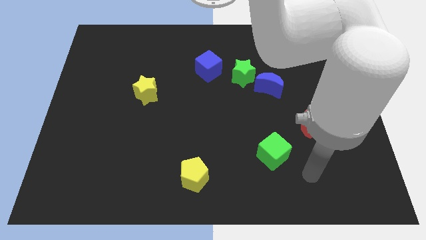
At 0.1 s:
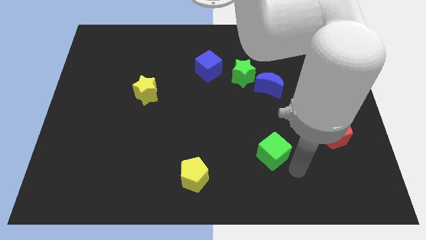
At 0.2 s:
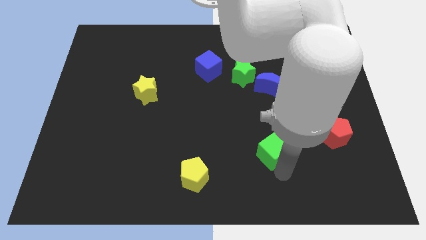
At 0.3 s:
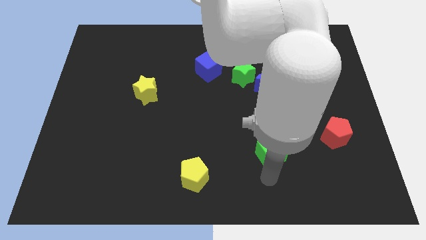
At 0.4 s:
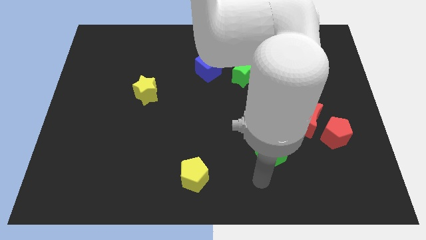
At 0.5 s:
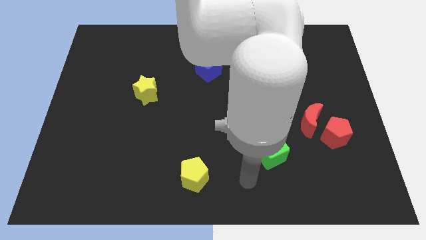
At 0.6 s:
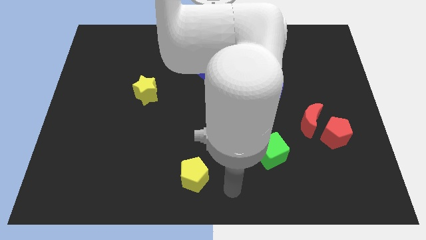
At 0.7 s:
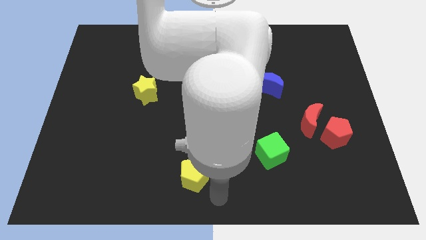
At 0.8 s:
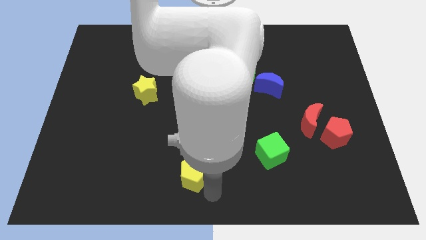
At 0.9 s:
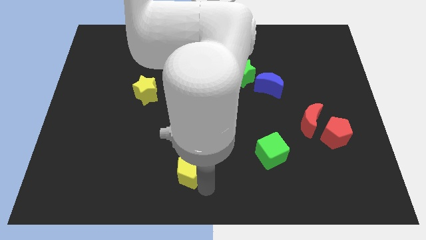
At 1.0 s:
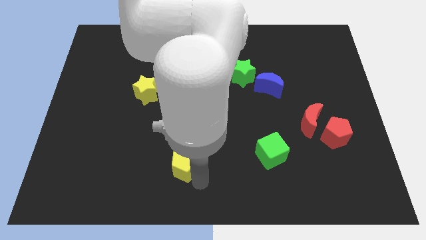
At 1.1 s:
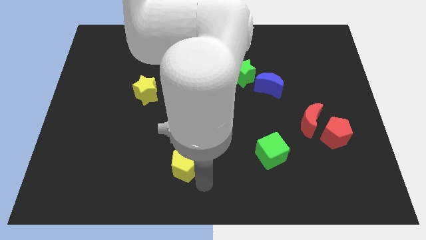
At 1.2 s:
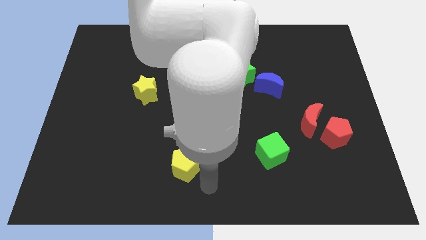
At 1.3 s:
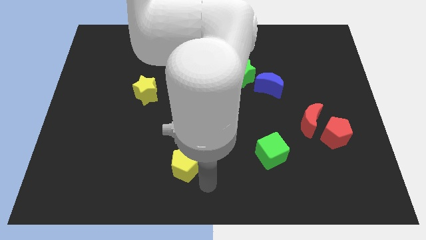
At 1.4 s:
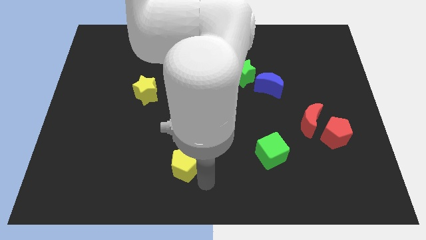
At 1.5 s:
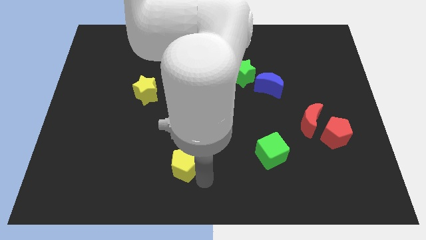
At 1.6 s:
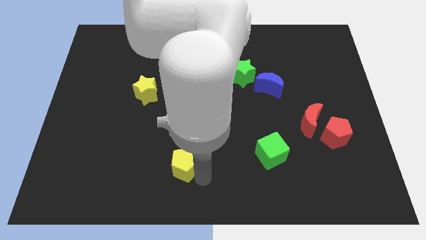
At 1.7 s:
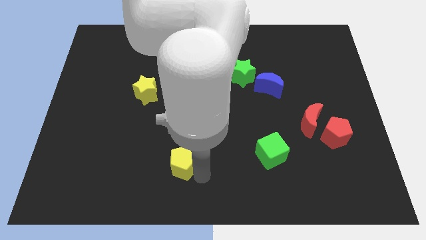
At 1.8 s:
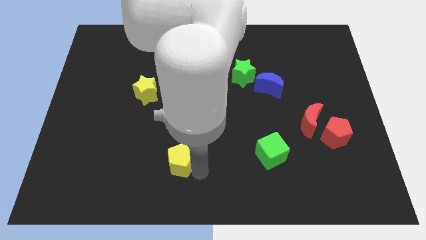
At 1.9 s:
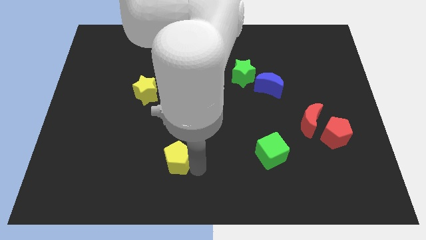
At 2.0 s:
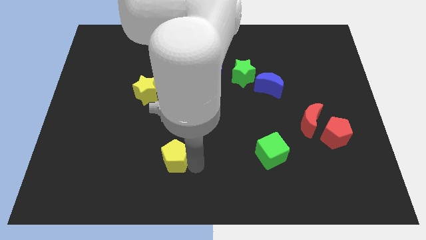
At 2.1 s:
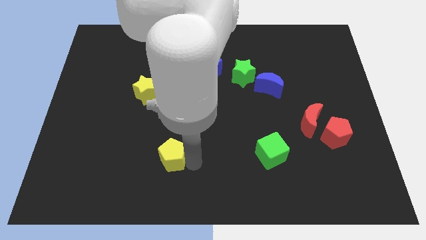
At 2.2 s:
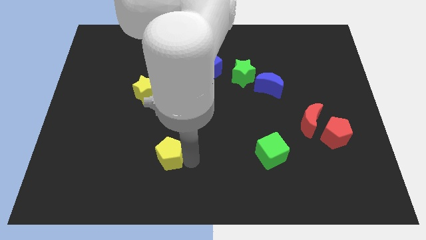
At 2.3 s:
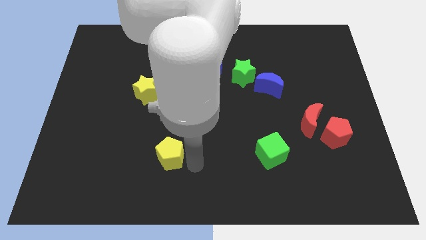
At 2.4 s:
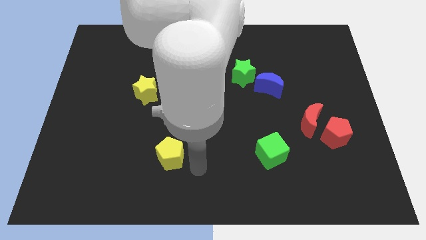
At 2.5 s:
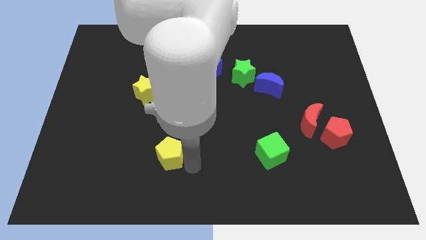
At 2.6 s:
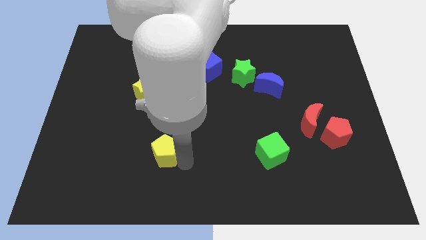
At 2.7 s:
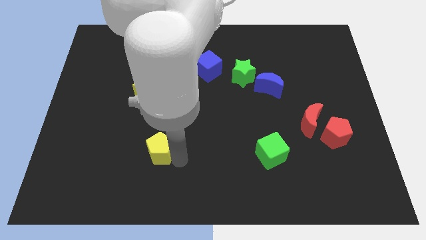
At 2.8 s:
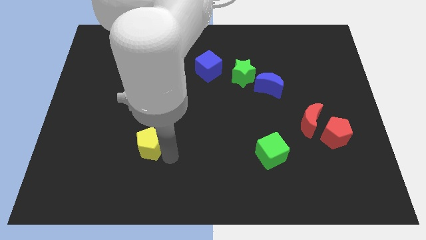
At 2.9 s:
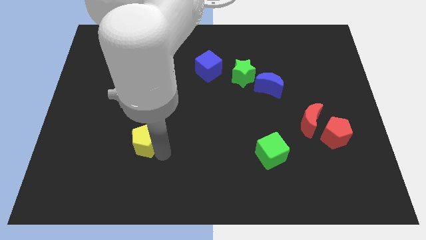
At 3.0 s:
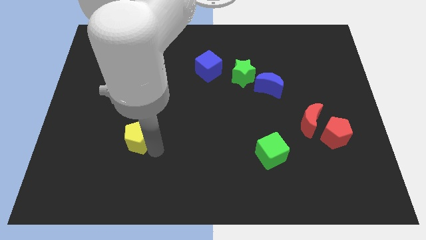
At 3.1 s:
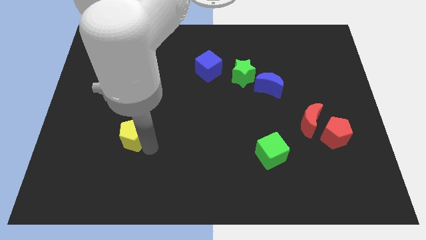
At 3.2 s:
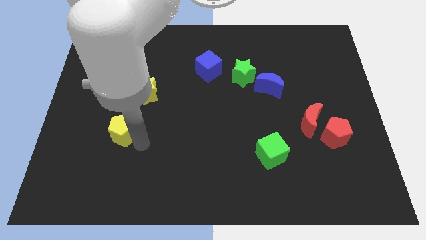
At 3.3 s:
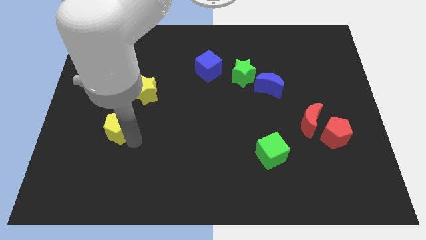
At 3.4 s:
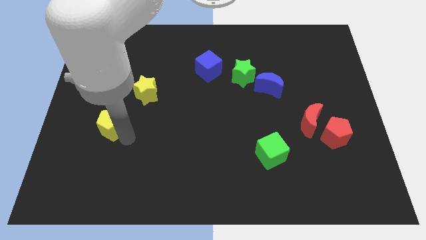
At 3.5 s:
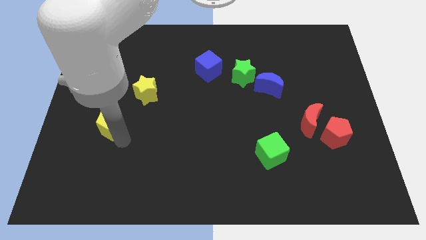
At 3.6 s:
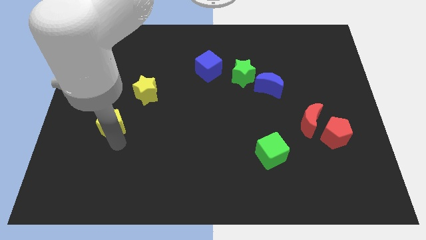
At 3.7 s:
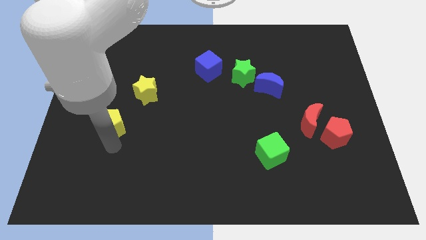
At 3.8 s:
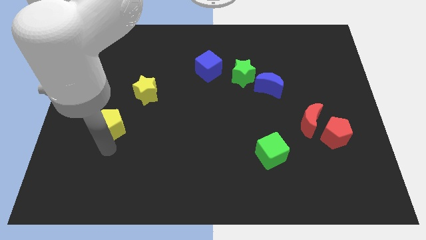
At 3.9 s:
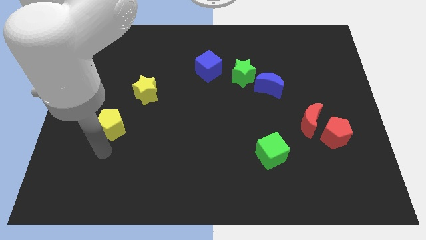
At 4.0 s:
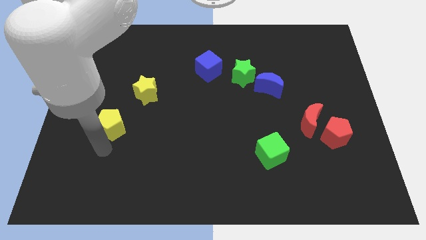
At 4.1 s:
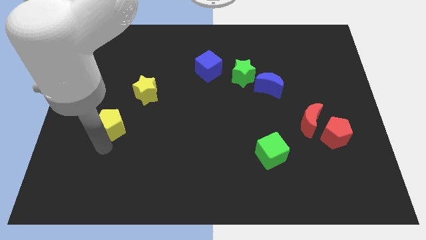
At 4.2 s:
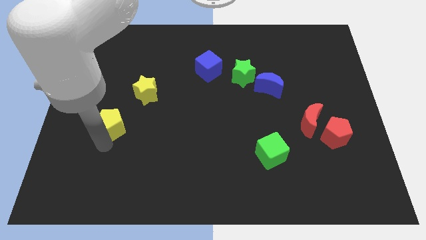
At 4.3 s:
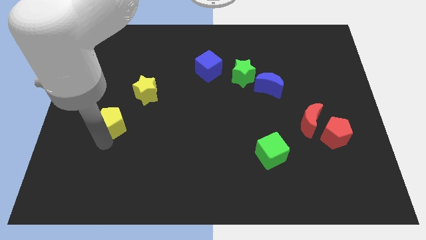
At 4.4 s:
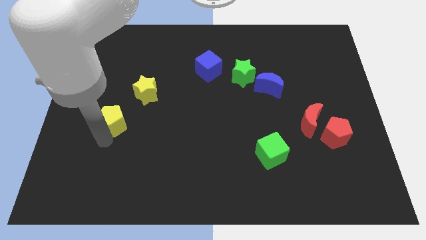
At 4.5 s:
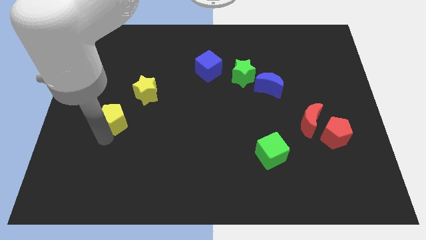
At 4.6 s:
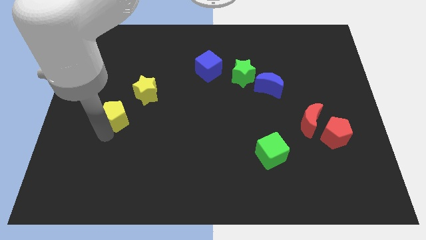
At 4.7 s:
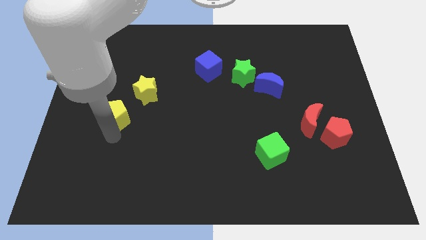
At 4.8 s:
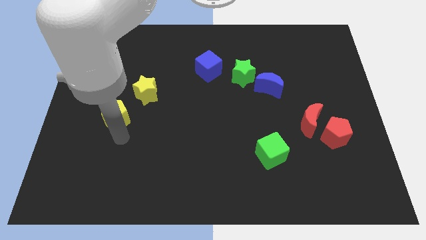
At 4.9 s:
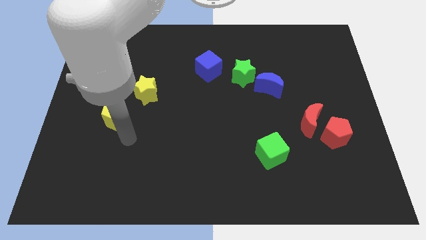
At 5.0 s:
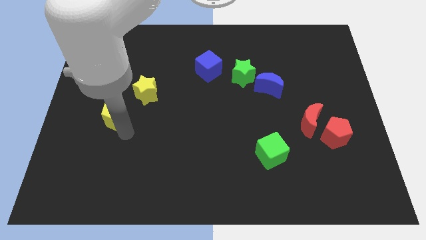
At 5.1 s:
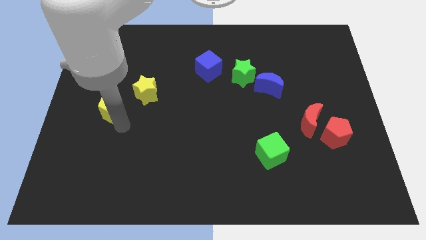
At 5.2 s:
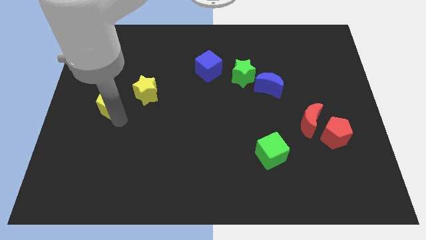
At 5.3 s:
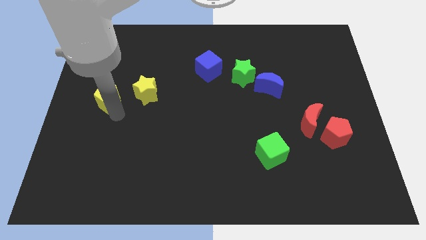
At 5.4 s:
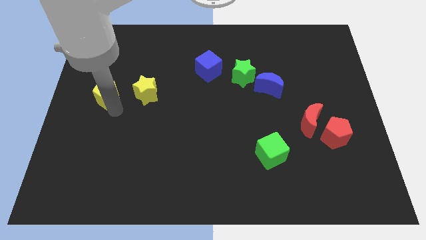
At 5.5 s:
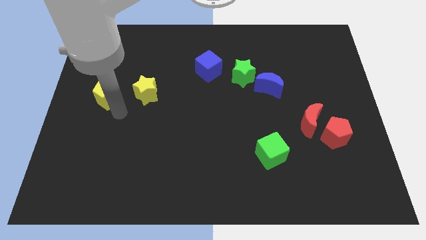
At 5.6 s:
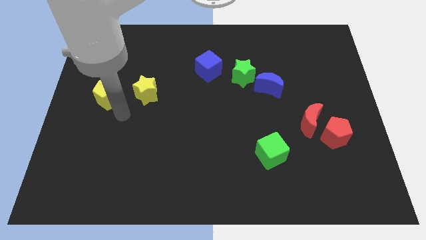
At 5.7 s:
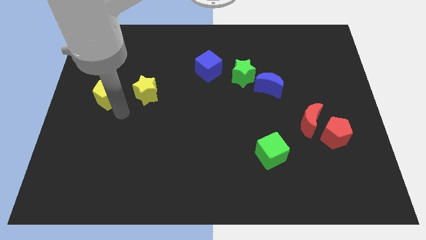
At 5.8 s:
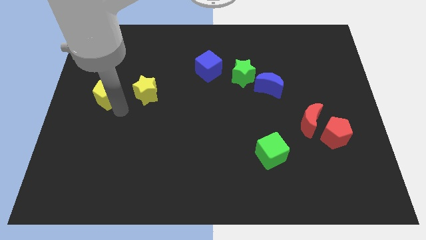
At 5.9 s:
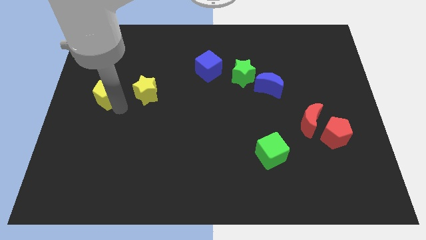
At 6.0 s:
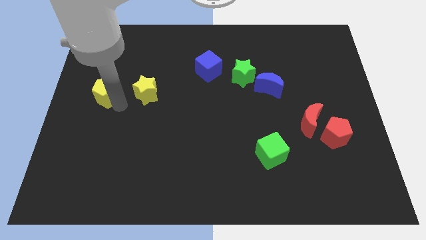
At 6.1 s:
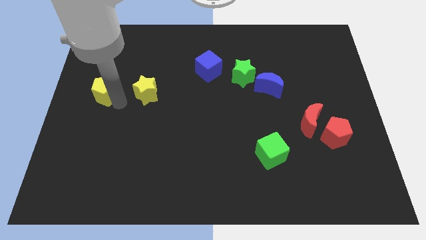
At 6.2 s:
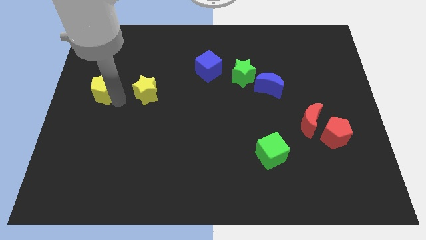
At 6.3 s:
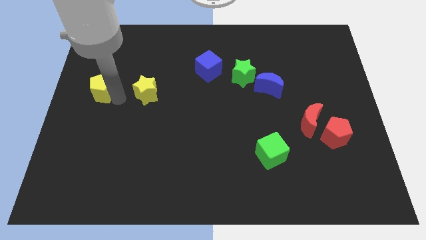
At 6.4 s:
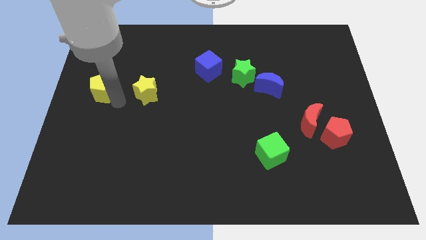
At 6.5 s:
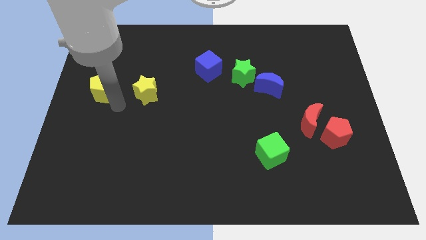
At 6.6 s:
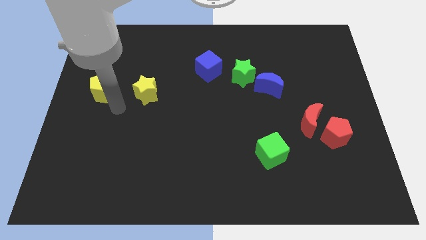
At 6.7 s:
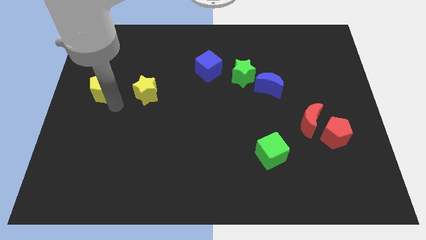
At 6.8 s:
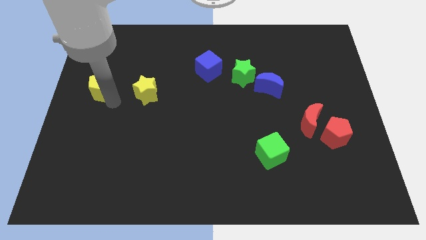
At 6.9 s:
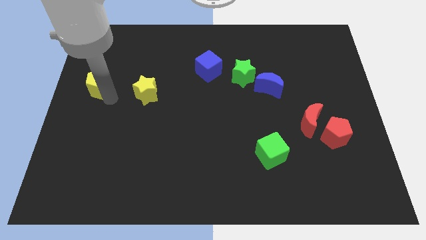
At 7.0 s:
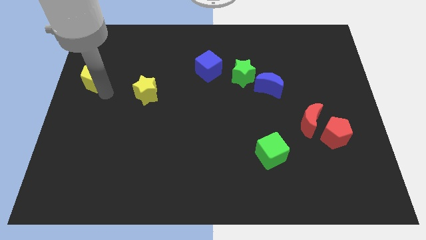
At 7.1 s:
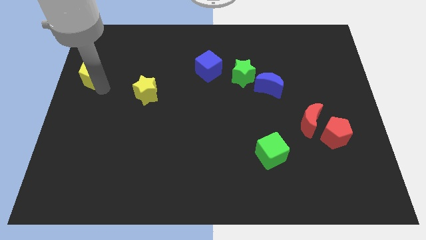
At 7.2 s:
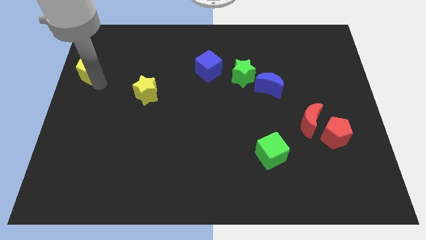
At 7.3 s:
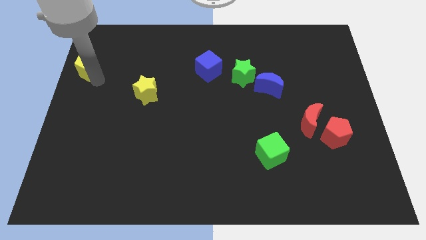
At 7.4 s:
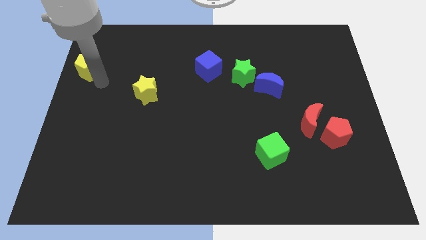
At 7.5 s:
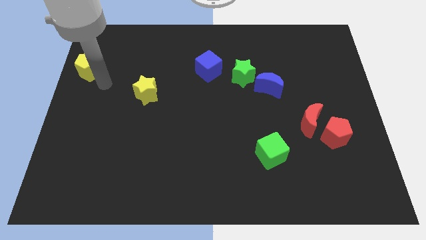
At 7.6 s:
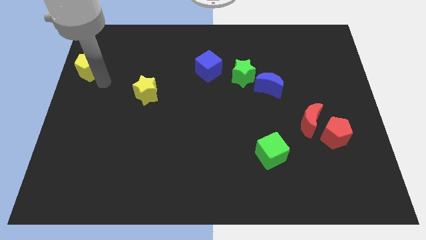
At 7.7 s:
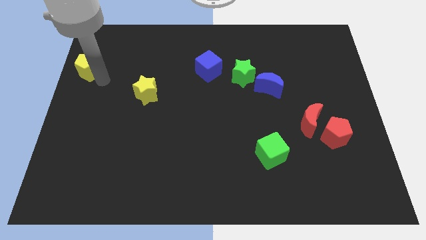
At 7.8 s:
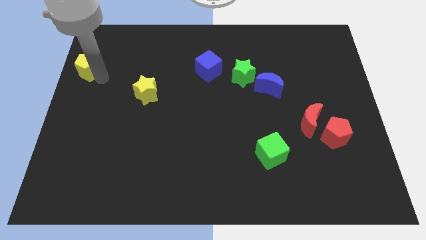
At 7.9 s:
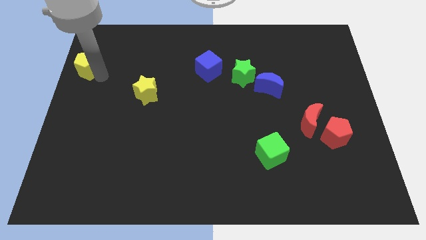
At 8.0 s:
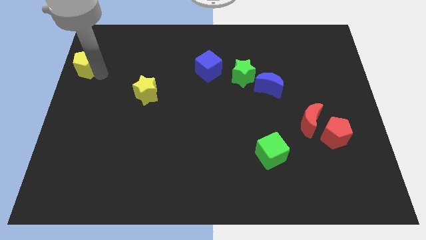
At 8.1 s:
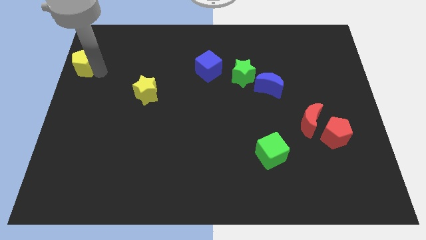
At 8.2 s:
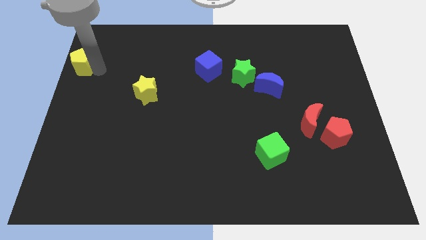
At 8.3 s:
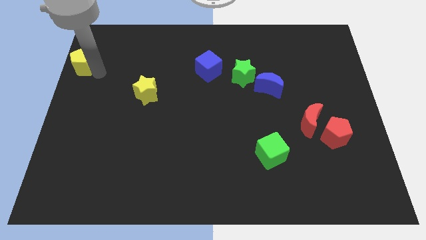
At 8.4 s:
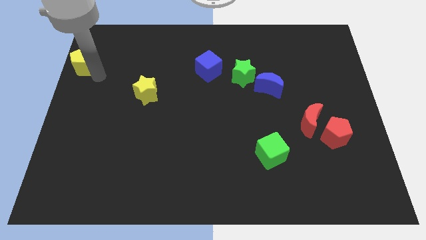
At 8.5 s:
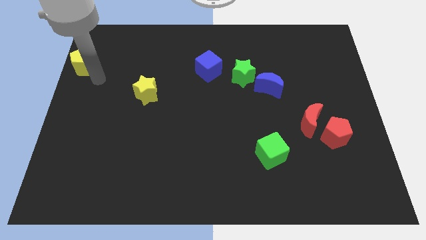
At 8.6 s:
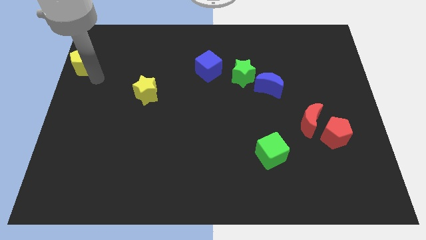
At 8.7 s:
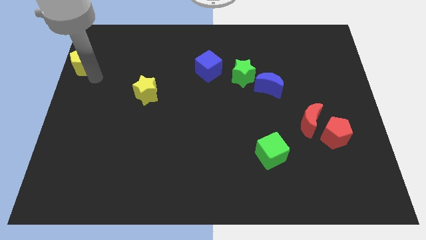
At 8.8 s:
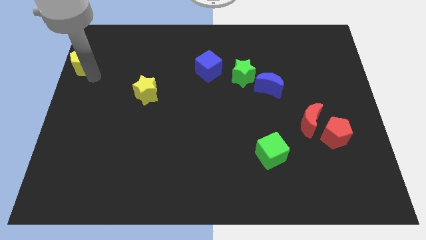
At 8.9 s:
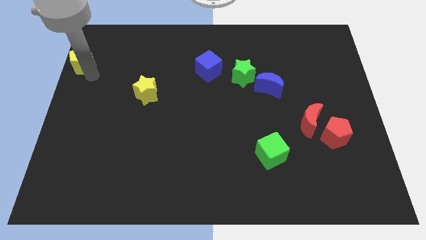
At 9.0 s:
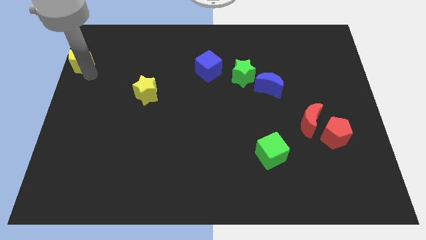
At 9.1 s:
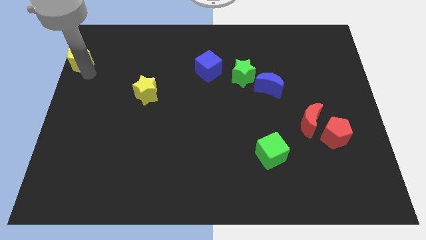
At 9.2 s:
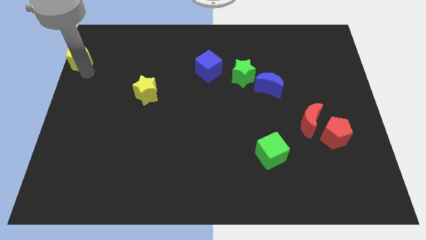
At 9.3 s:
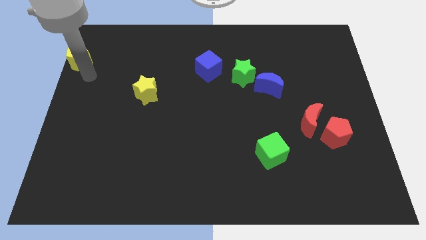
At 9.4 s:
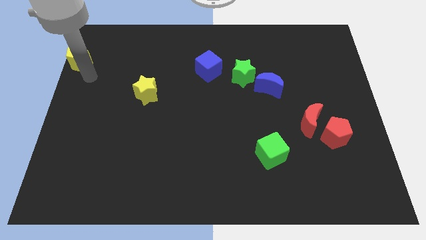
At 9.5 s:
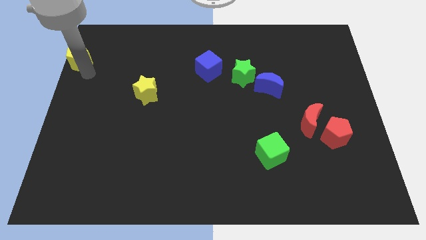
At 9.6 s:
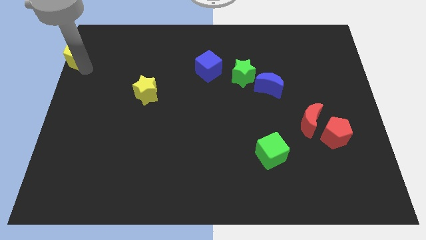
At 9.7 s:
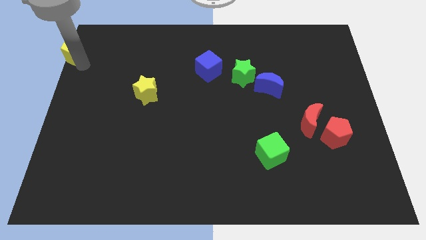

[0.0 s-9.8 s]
slide the yellow pentagon to the top left
